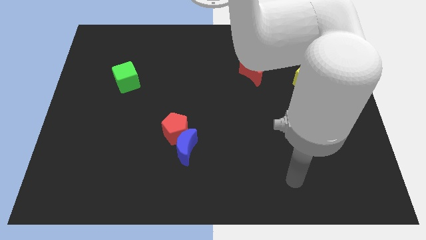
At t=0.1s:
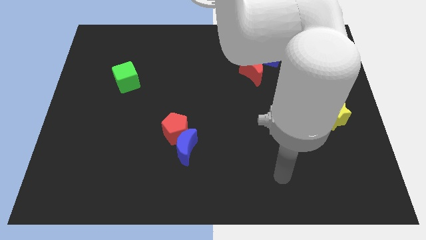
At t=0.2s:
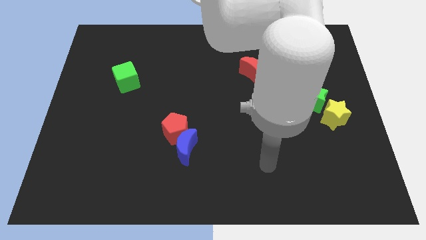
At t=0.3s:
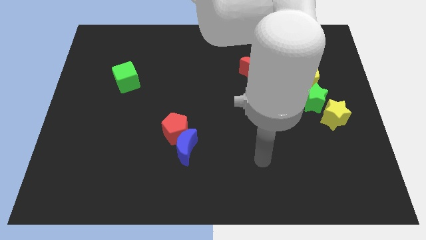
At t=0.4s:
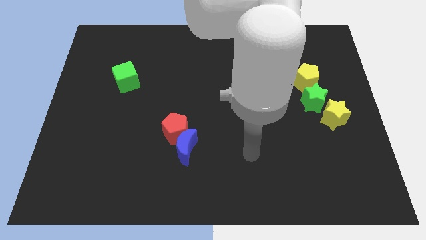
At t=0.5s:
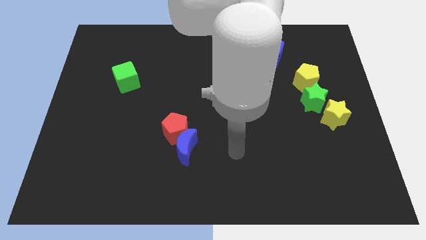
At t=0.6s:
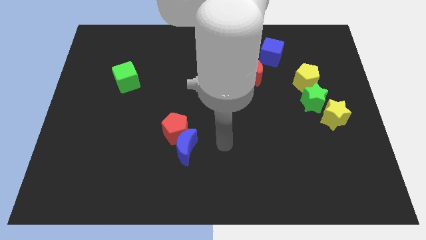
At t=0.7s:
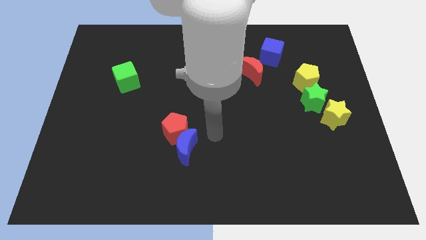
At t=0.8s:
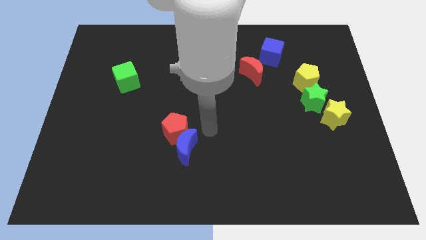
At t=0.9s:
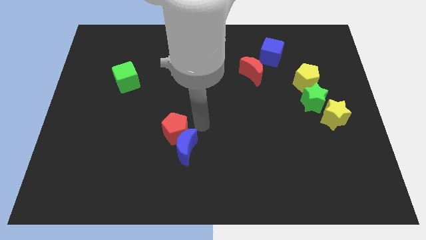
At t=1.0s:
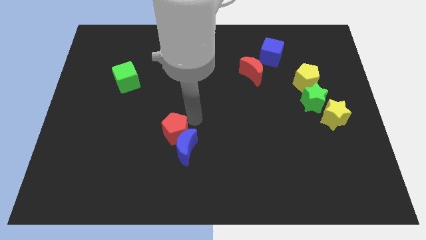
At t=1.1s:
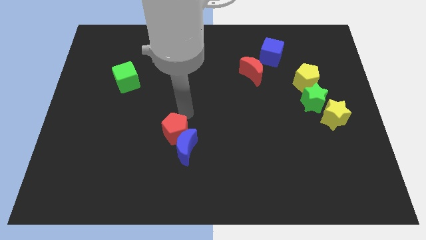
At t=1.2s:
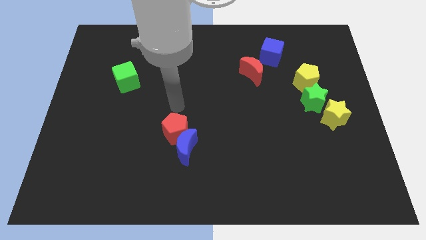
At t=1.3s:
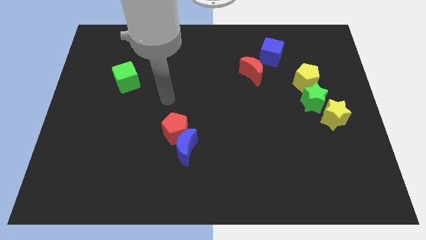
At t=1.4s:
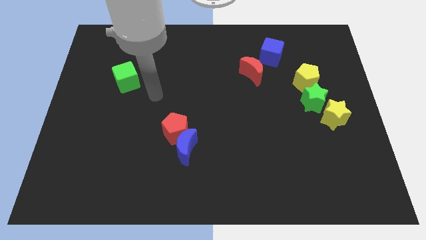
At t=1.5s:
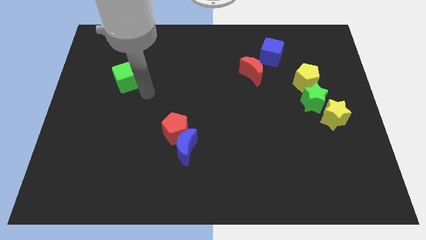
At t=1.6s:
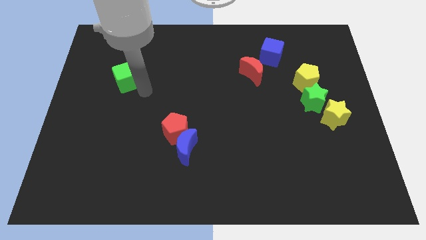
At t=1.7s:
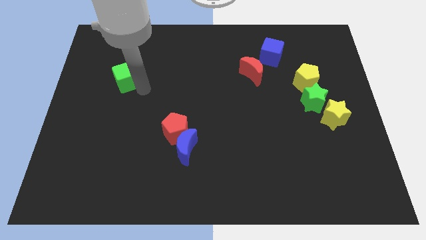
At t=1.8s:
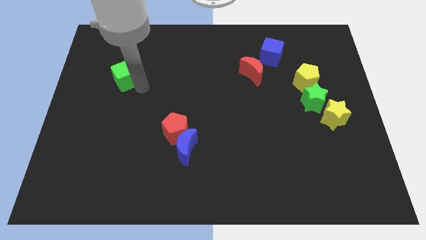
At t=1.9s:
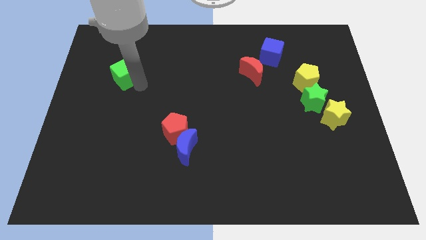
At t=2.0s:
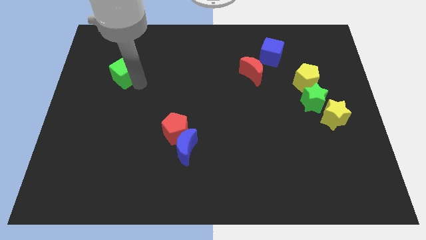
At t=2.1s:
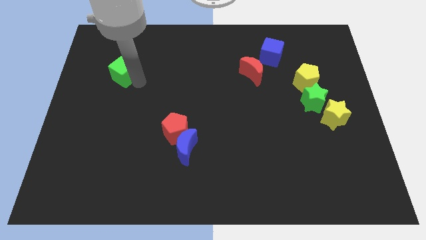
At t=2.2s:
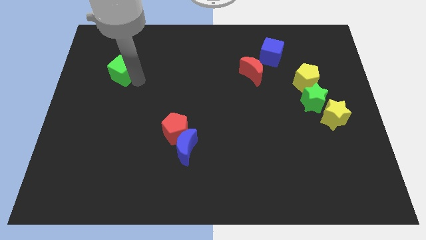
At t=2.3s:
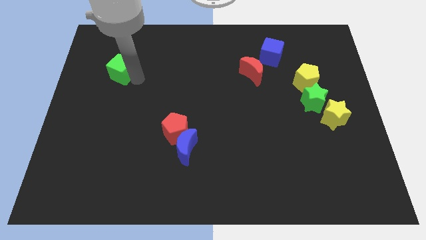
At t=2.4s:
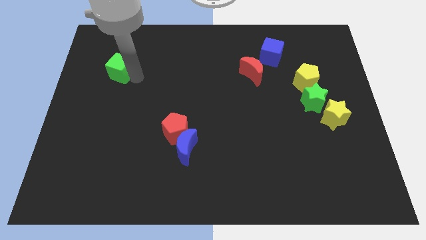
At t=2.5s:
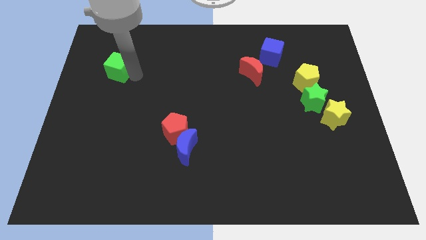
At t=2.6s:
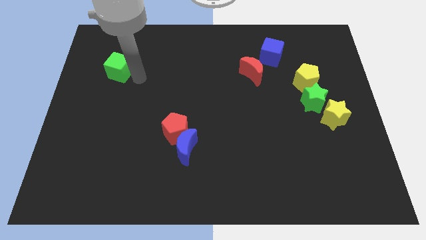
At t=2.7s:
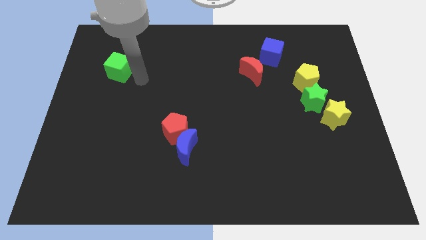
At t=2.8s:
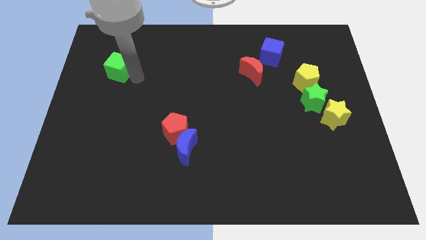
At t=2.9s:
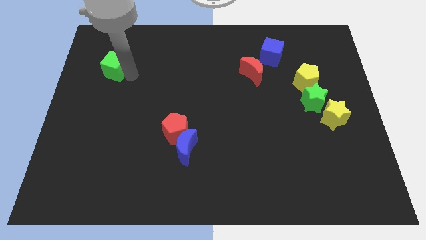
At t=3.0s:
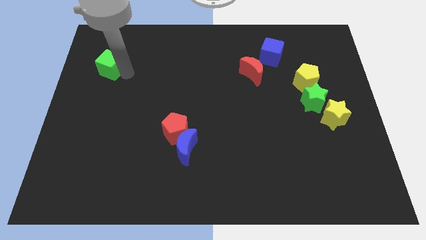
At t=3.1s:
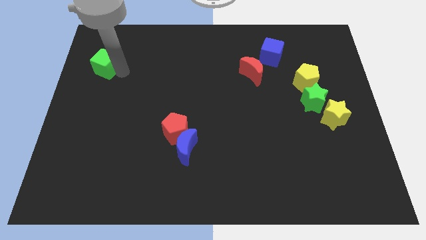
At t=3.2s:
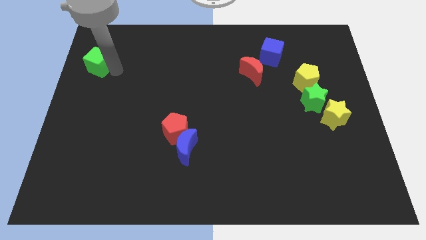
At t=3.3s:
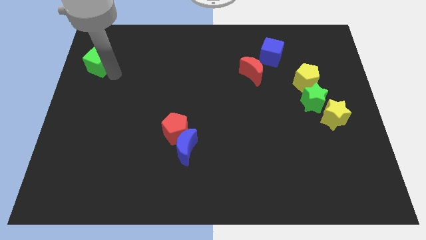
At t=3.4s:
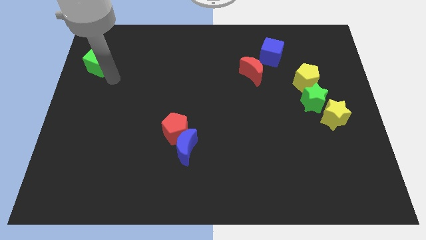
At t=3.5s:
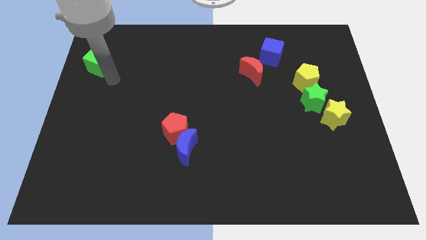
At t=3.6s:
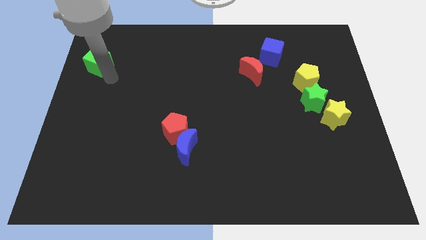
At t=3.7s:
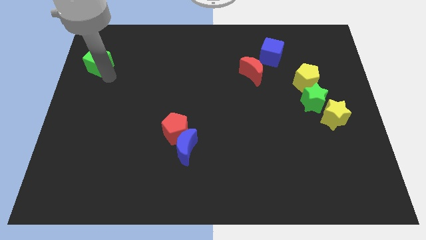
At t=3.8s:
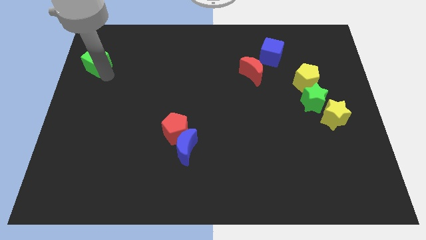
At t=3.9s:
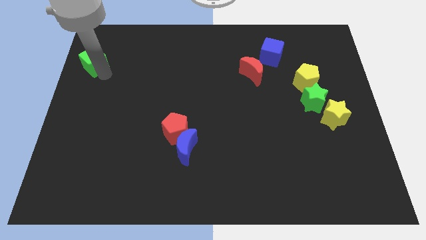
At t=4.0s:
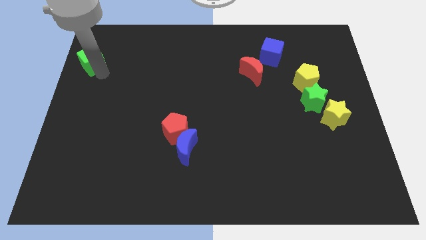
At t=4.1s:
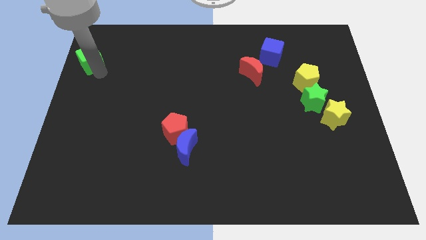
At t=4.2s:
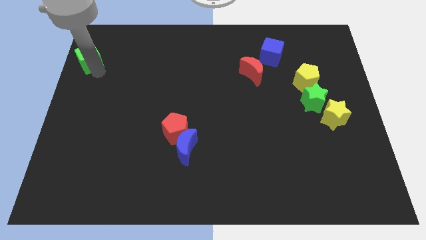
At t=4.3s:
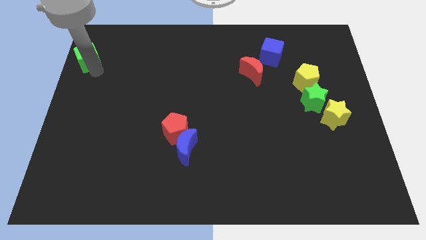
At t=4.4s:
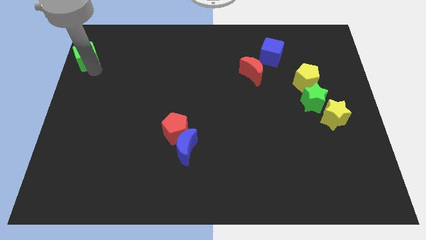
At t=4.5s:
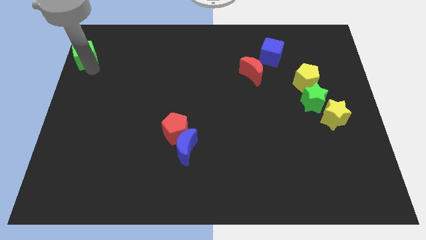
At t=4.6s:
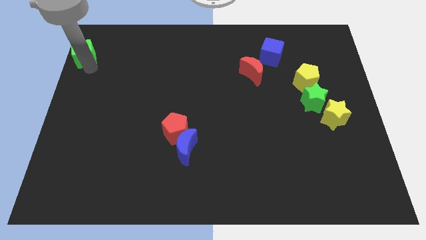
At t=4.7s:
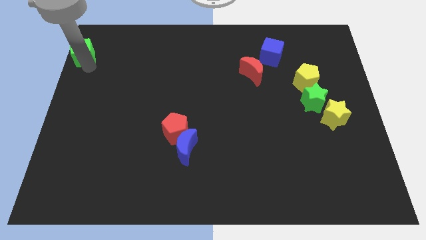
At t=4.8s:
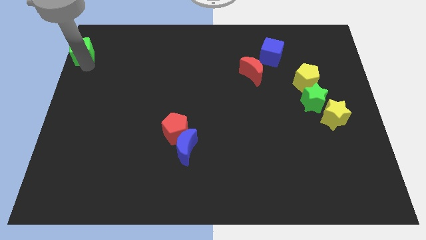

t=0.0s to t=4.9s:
move the green cube to the upper left corner
